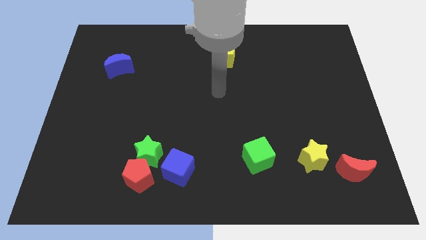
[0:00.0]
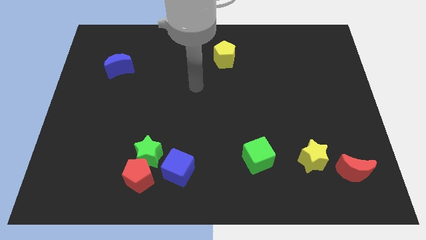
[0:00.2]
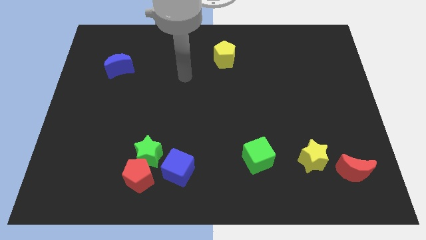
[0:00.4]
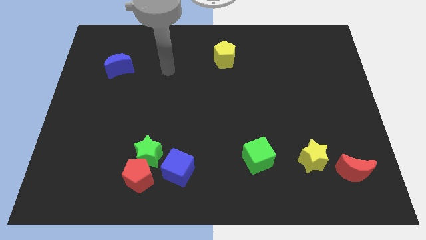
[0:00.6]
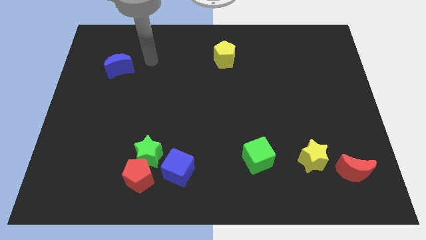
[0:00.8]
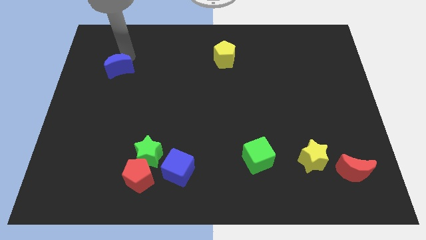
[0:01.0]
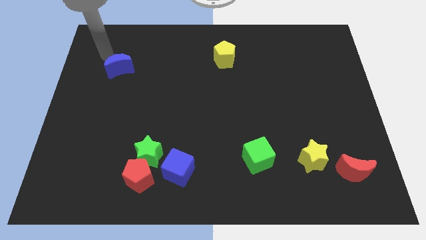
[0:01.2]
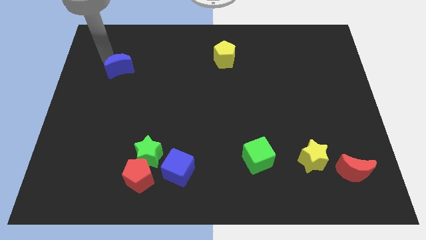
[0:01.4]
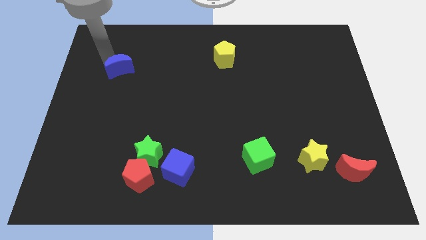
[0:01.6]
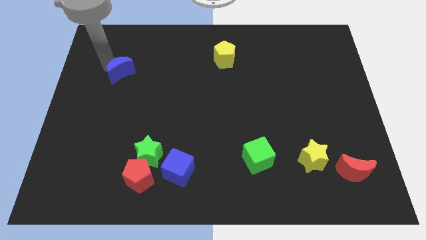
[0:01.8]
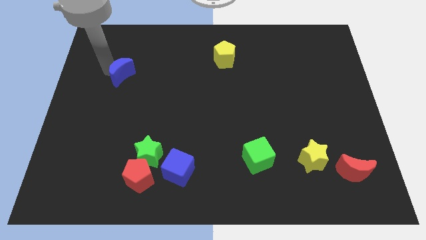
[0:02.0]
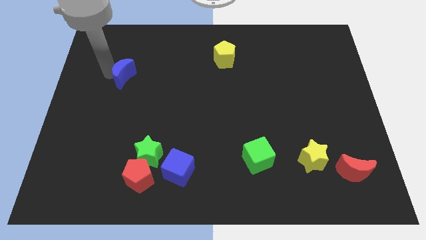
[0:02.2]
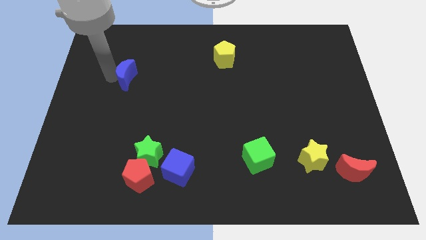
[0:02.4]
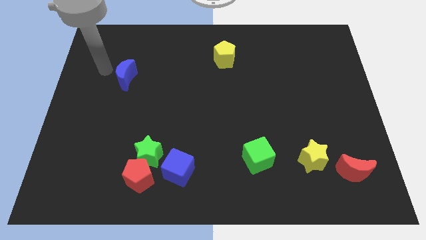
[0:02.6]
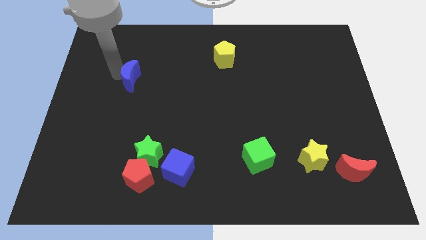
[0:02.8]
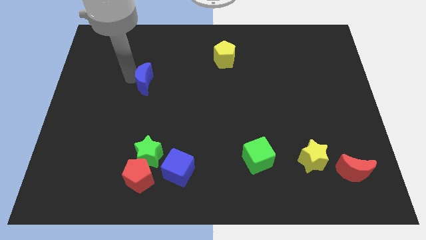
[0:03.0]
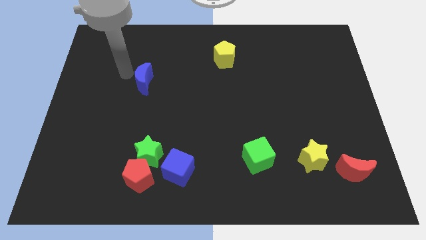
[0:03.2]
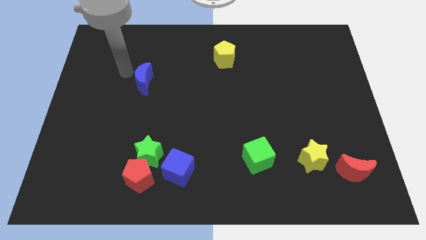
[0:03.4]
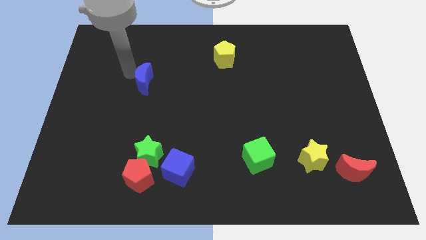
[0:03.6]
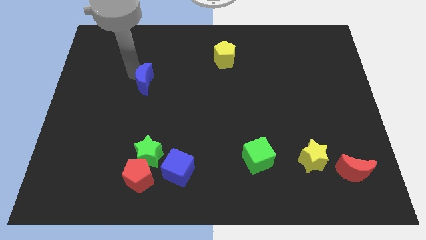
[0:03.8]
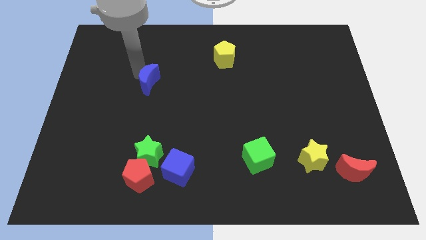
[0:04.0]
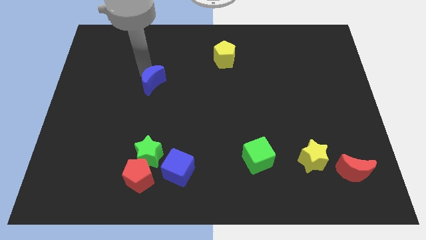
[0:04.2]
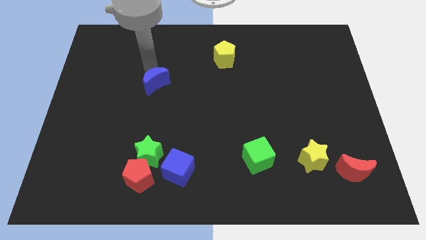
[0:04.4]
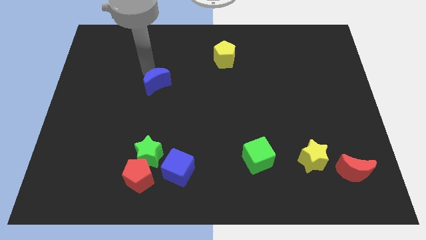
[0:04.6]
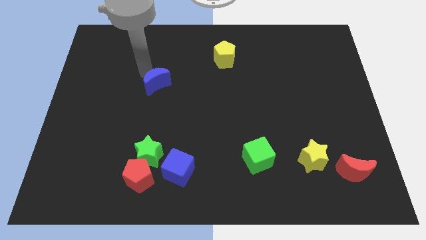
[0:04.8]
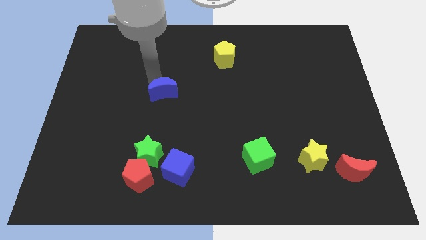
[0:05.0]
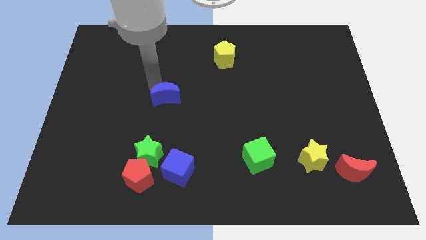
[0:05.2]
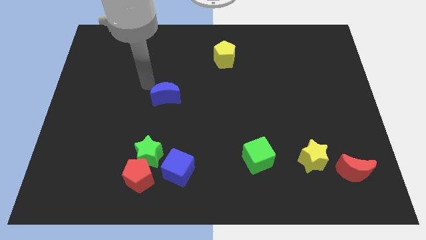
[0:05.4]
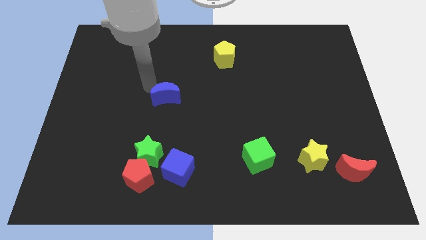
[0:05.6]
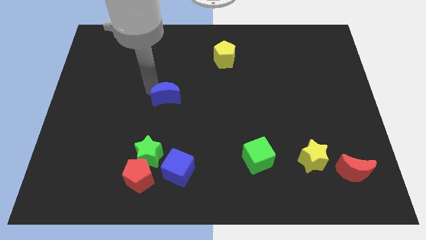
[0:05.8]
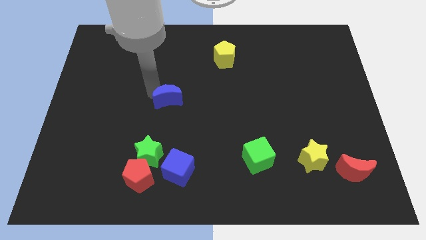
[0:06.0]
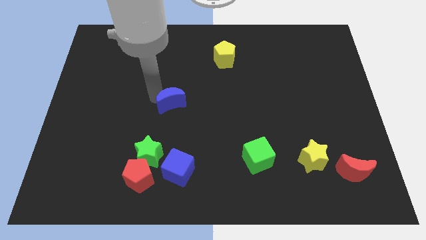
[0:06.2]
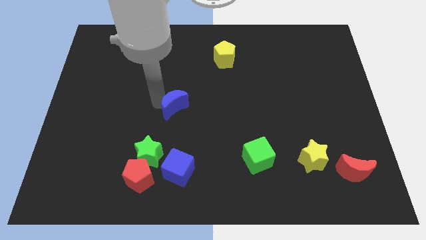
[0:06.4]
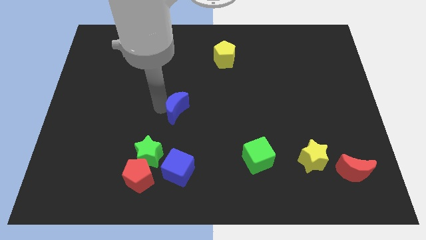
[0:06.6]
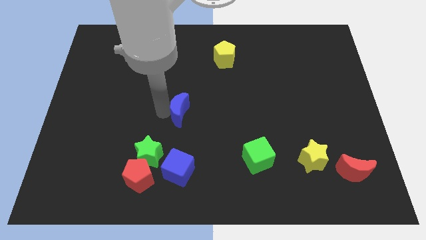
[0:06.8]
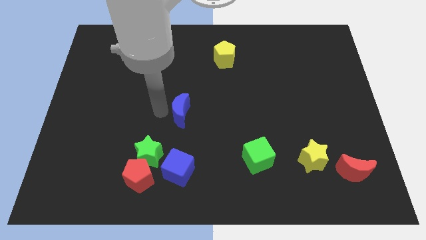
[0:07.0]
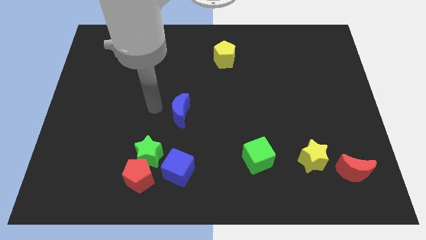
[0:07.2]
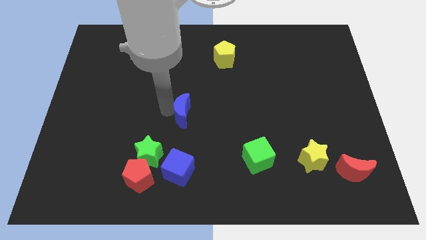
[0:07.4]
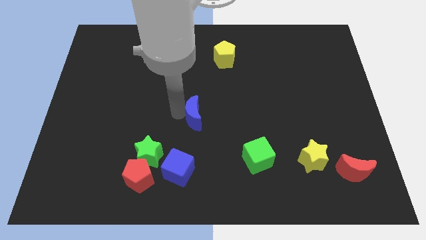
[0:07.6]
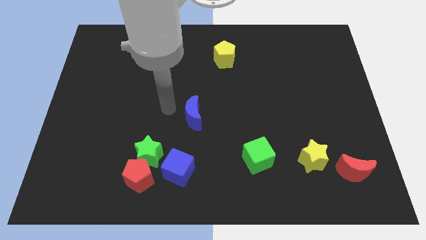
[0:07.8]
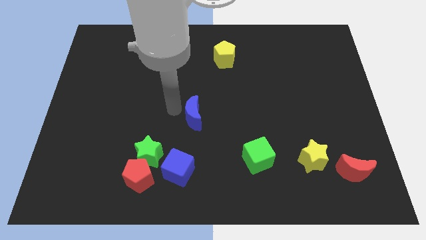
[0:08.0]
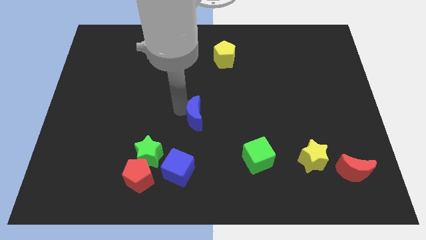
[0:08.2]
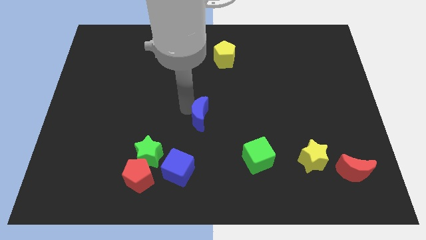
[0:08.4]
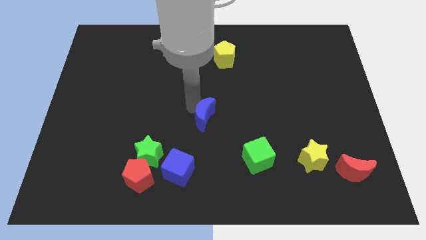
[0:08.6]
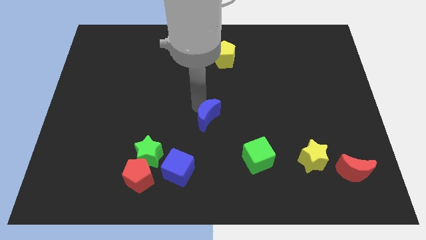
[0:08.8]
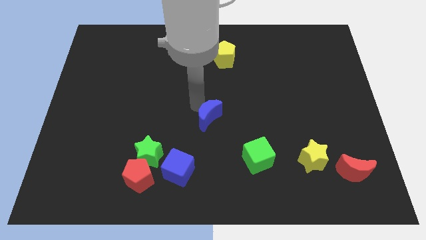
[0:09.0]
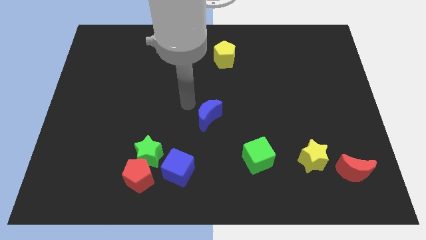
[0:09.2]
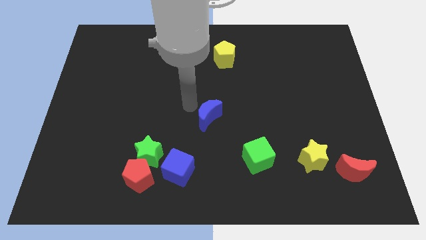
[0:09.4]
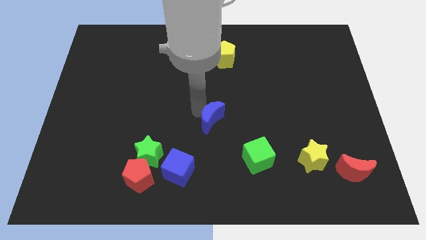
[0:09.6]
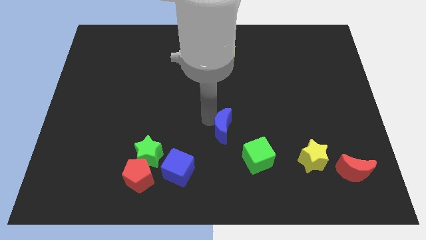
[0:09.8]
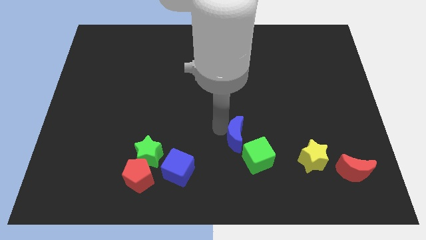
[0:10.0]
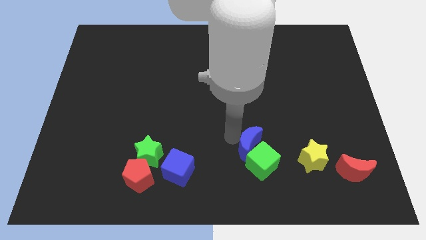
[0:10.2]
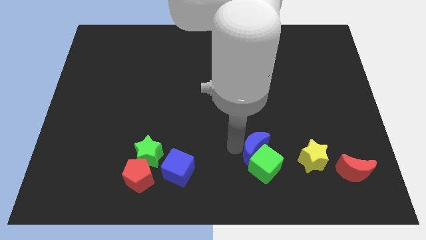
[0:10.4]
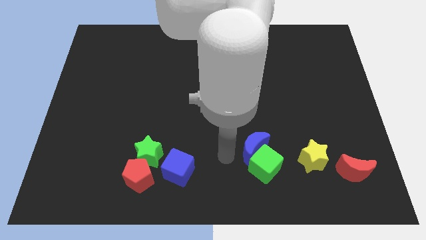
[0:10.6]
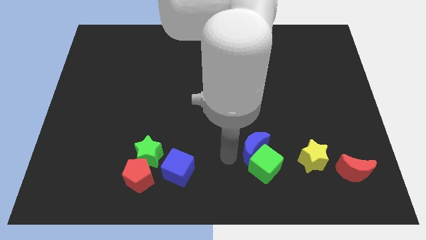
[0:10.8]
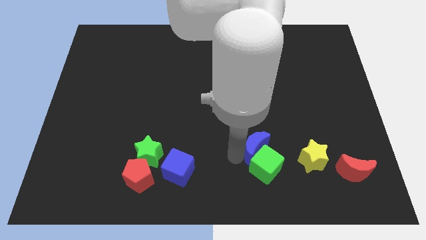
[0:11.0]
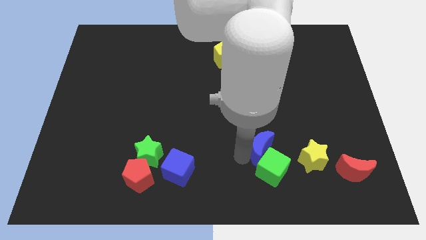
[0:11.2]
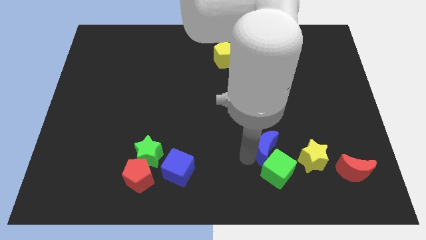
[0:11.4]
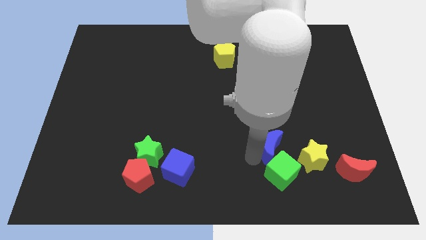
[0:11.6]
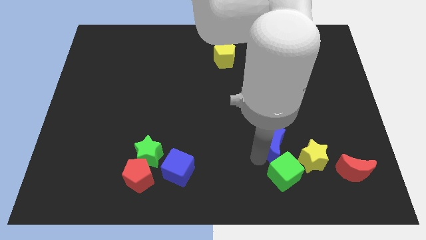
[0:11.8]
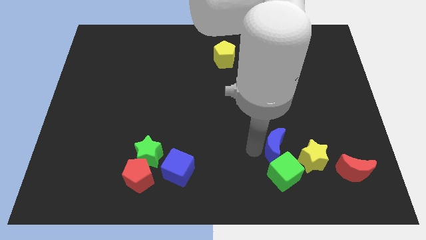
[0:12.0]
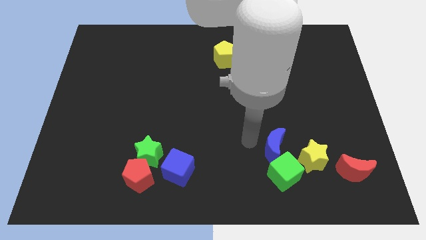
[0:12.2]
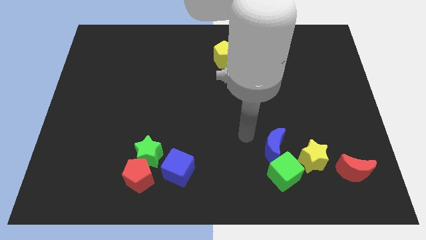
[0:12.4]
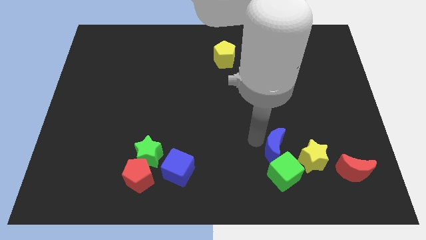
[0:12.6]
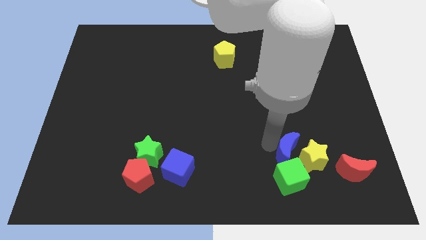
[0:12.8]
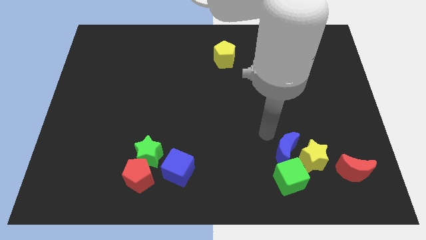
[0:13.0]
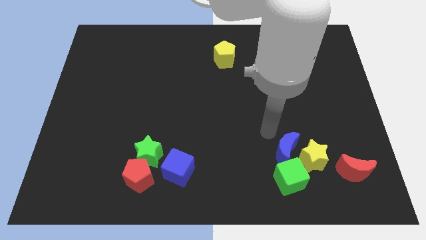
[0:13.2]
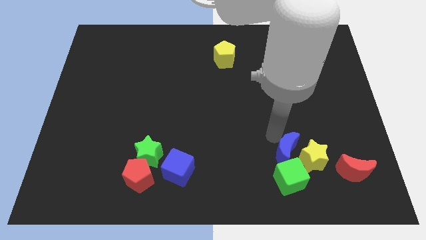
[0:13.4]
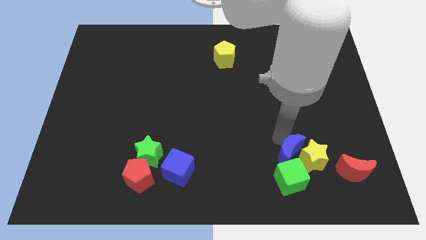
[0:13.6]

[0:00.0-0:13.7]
move the blue moon just left of the red moon
